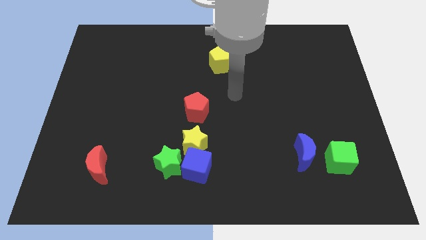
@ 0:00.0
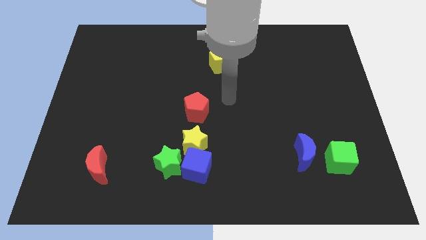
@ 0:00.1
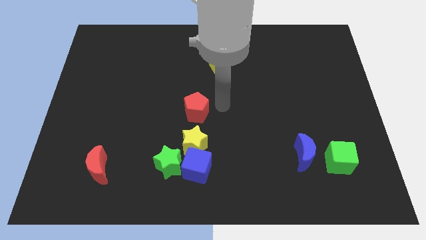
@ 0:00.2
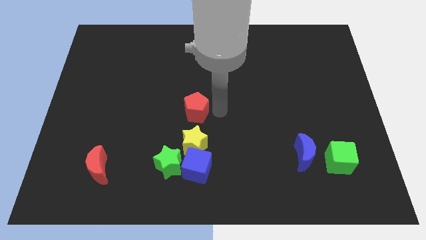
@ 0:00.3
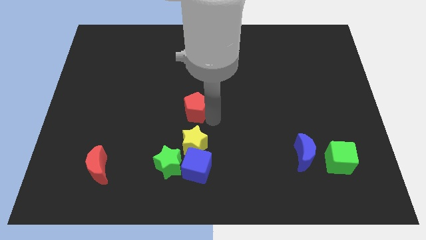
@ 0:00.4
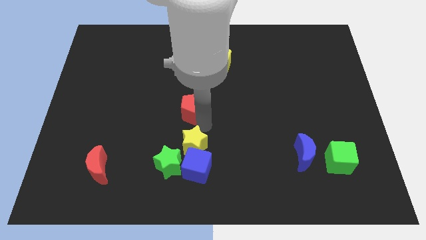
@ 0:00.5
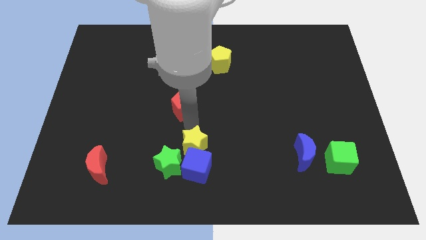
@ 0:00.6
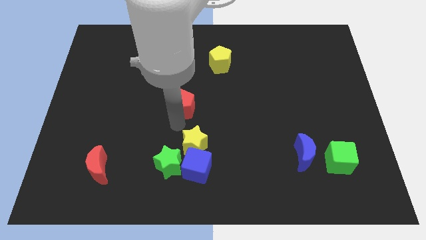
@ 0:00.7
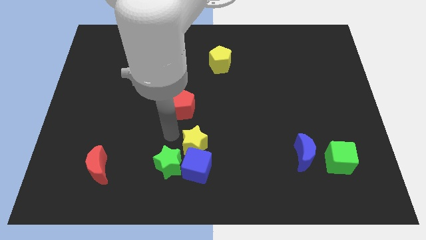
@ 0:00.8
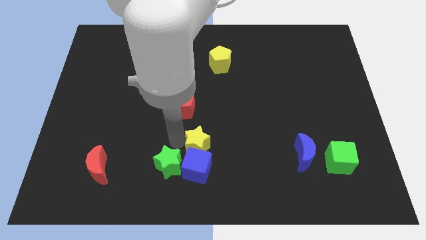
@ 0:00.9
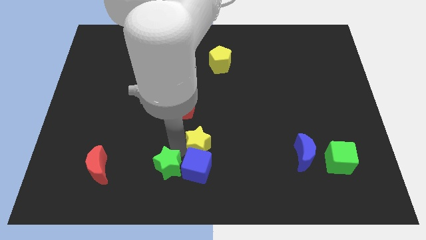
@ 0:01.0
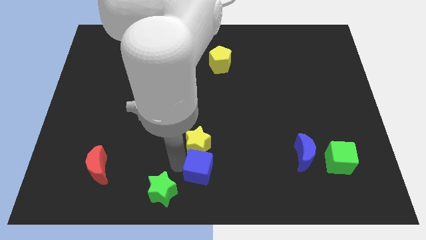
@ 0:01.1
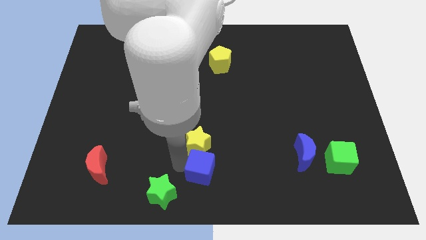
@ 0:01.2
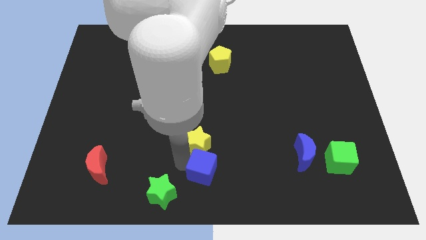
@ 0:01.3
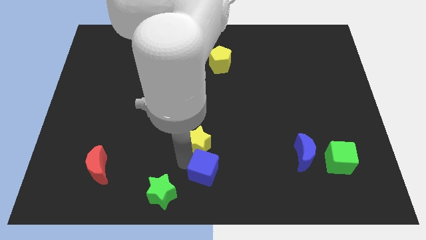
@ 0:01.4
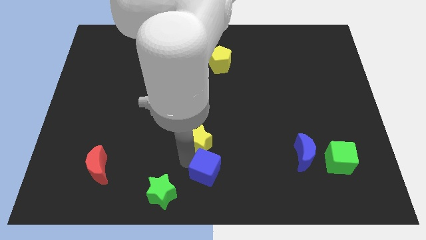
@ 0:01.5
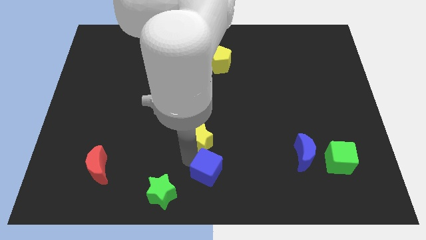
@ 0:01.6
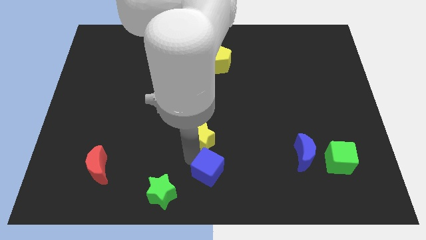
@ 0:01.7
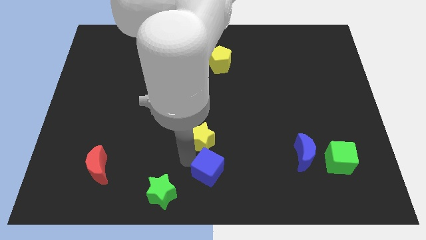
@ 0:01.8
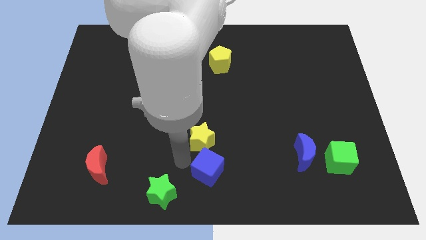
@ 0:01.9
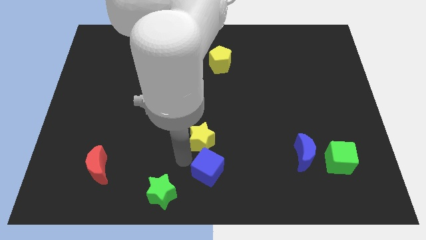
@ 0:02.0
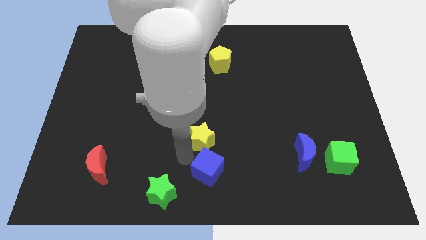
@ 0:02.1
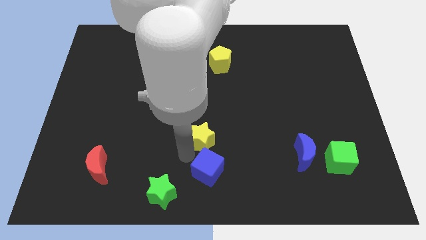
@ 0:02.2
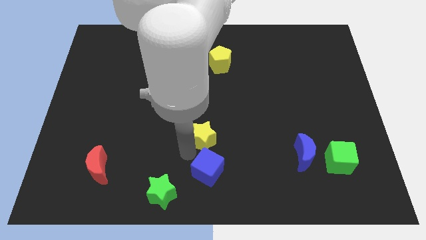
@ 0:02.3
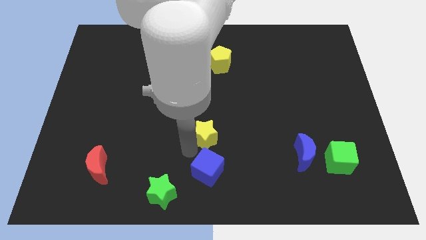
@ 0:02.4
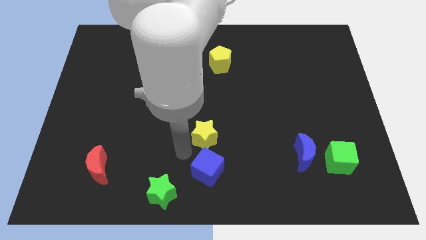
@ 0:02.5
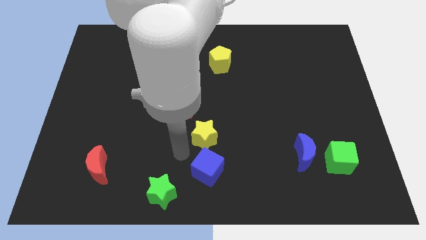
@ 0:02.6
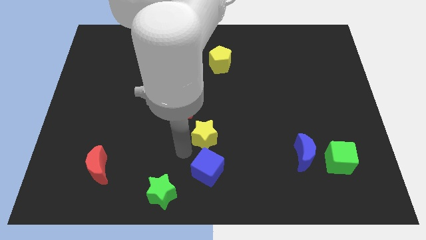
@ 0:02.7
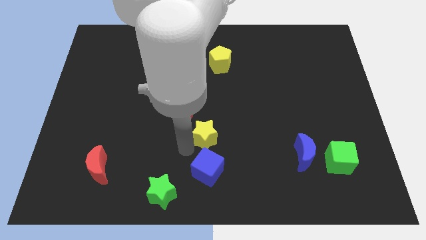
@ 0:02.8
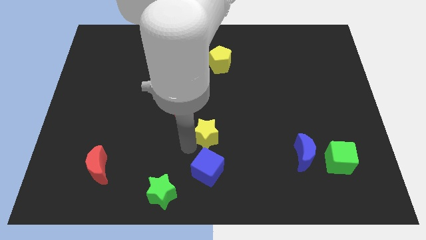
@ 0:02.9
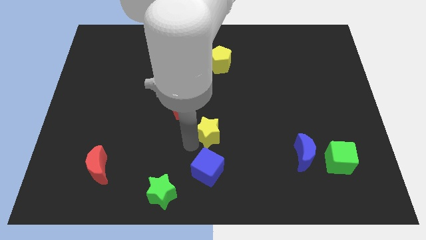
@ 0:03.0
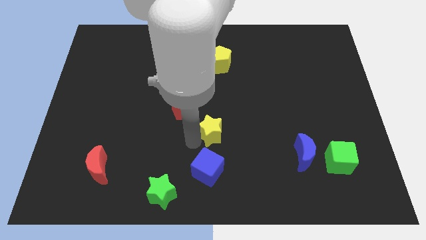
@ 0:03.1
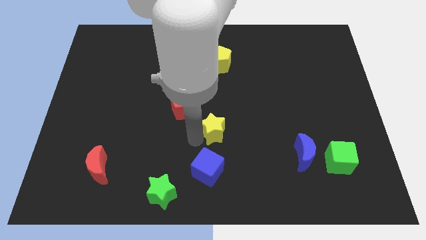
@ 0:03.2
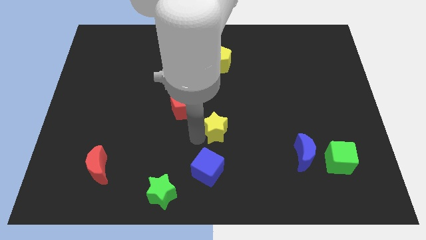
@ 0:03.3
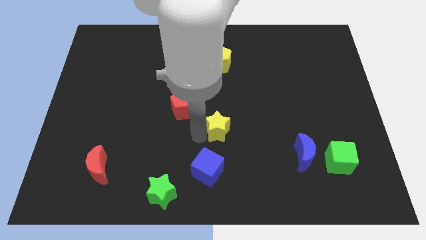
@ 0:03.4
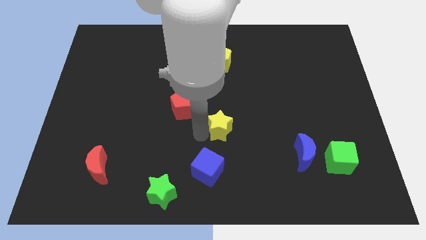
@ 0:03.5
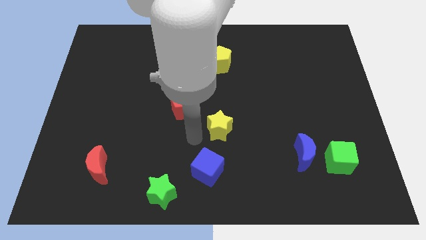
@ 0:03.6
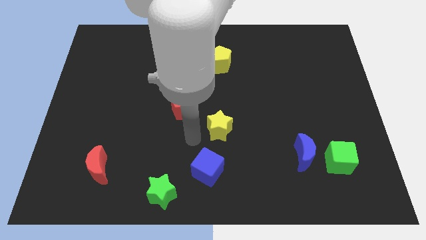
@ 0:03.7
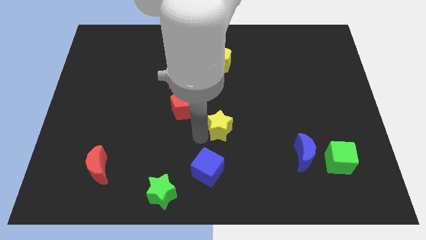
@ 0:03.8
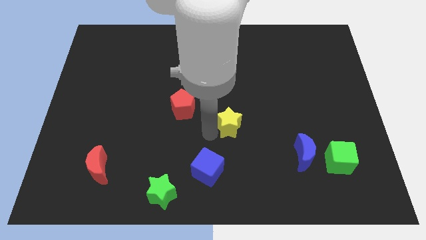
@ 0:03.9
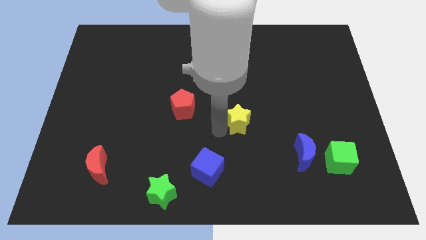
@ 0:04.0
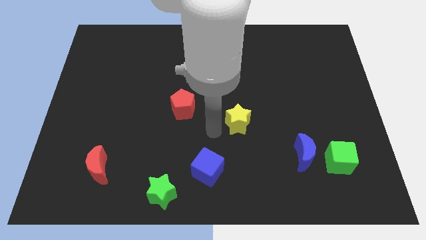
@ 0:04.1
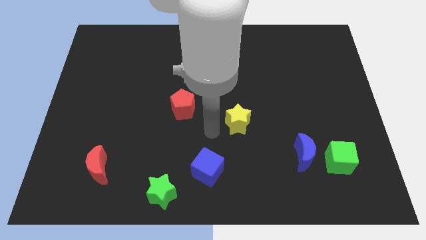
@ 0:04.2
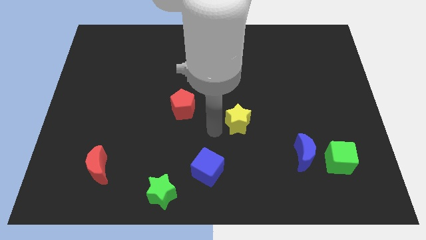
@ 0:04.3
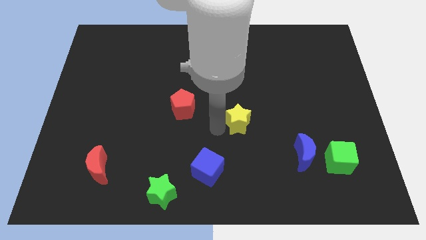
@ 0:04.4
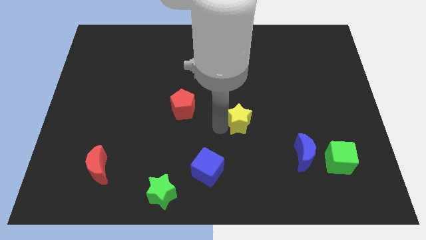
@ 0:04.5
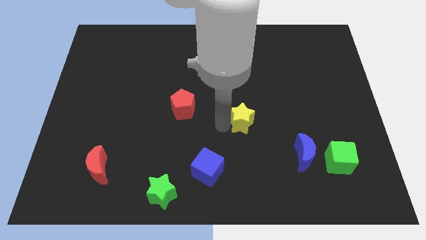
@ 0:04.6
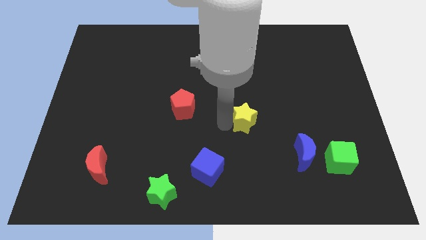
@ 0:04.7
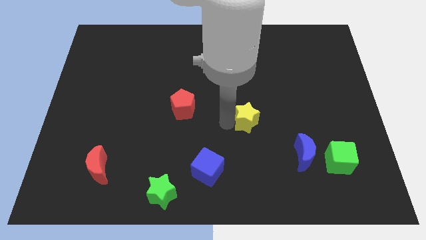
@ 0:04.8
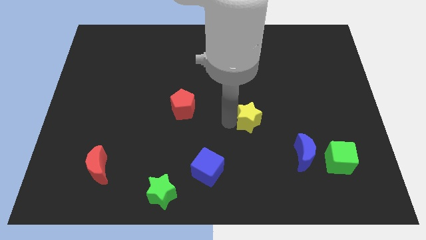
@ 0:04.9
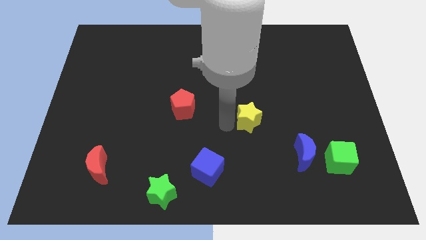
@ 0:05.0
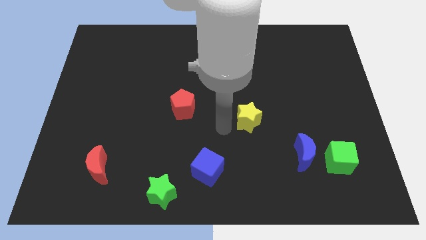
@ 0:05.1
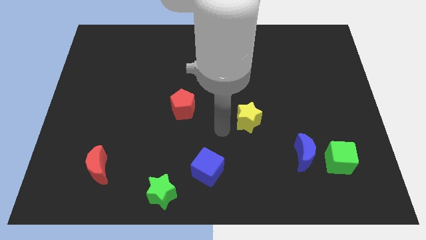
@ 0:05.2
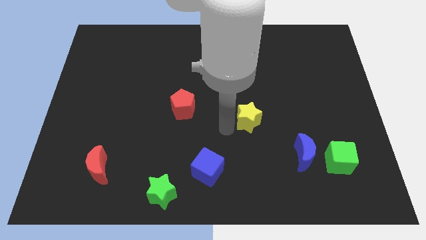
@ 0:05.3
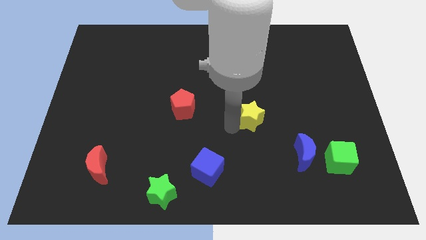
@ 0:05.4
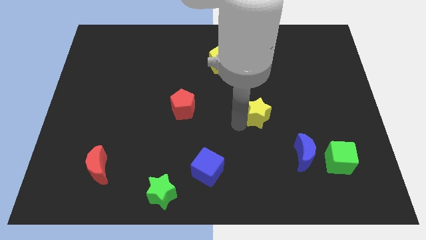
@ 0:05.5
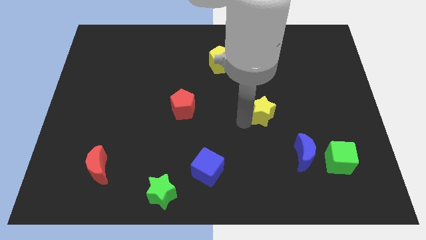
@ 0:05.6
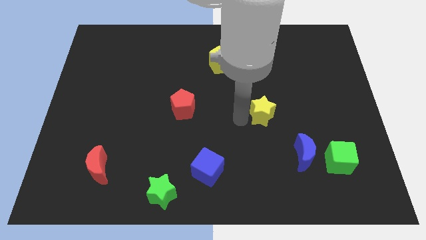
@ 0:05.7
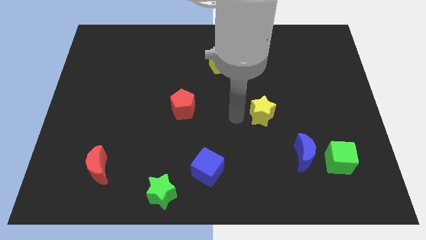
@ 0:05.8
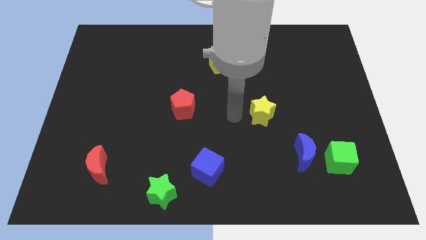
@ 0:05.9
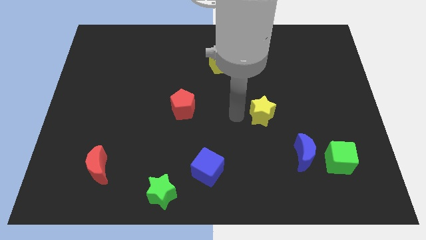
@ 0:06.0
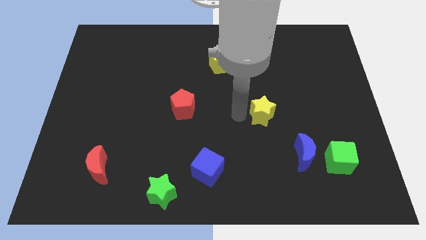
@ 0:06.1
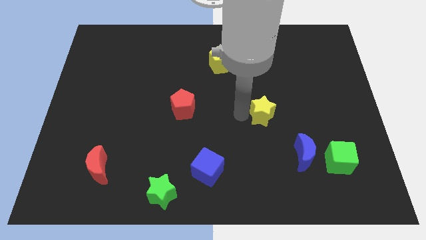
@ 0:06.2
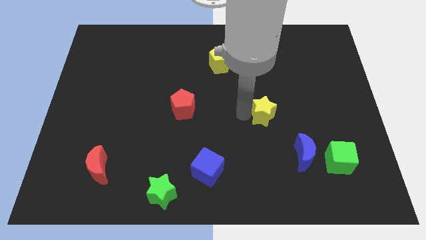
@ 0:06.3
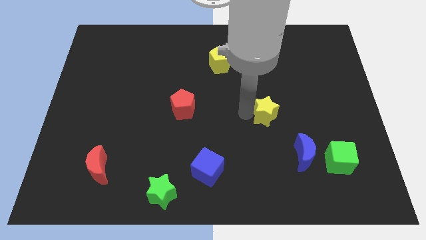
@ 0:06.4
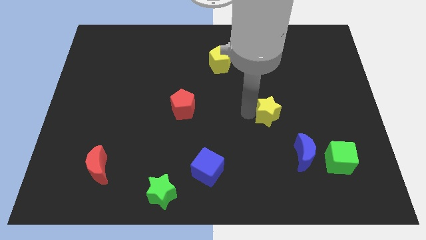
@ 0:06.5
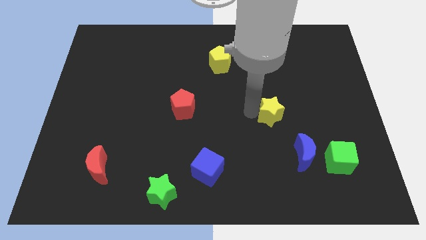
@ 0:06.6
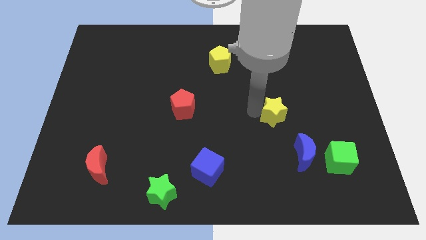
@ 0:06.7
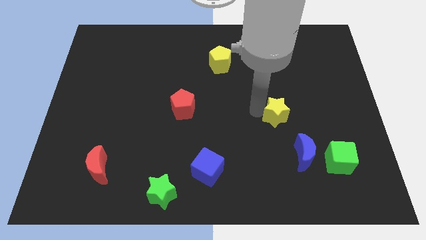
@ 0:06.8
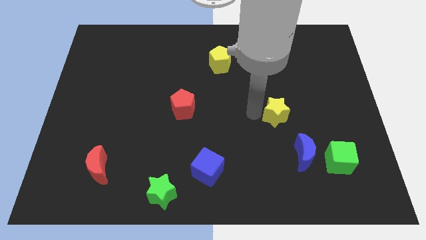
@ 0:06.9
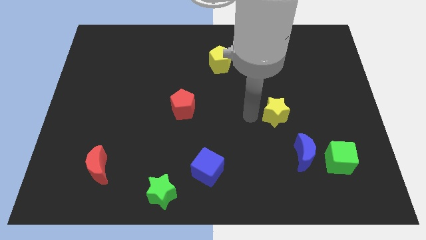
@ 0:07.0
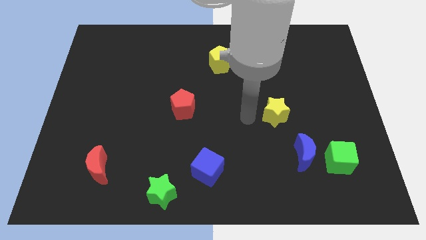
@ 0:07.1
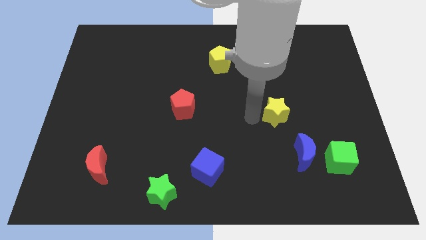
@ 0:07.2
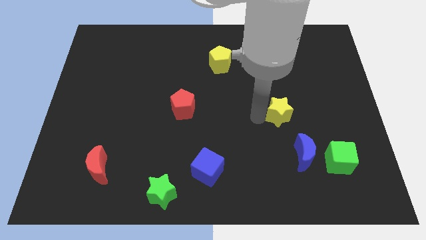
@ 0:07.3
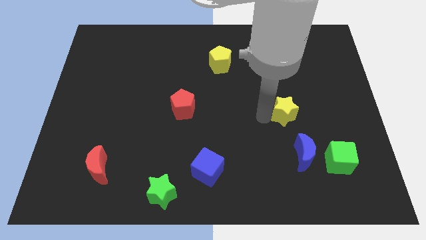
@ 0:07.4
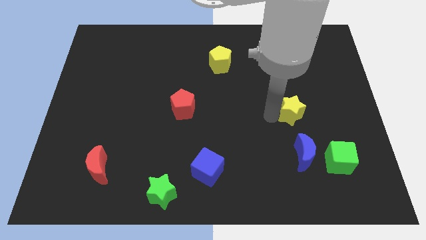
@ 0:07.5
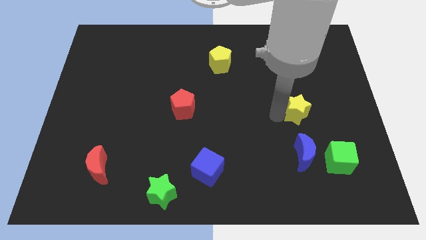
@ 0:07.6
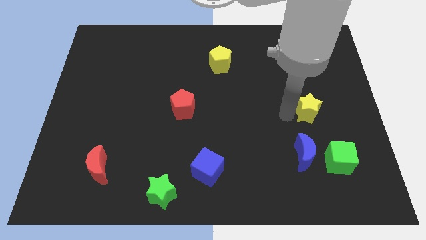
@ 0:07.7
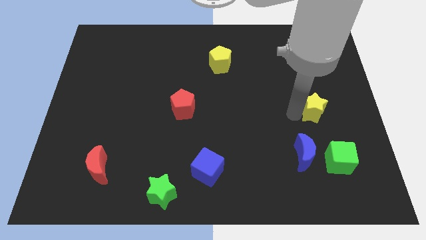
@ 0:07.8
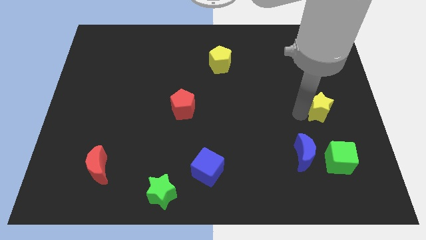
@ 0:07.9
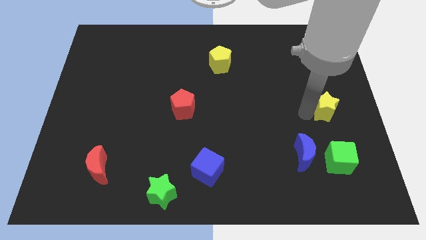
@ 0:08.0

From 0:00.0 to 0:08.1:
move the yellow star to the right side of the board
